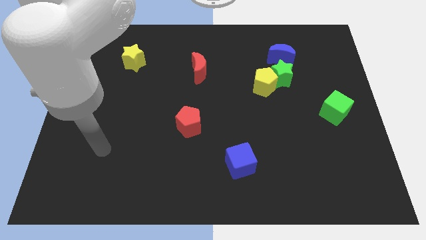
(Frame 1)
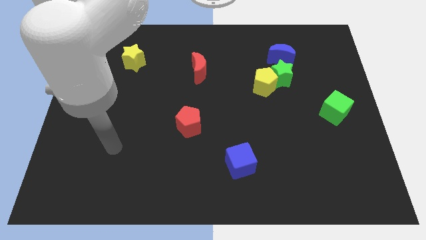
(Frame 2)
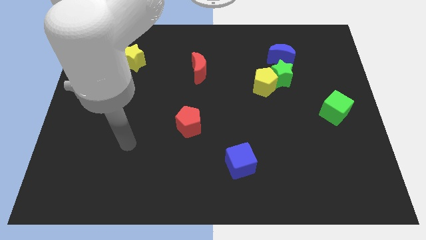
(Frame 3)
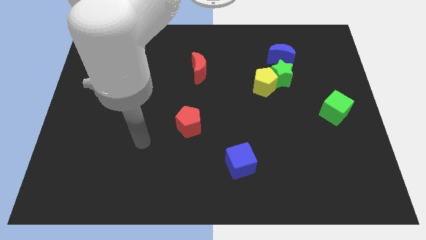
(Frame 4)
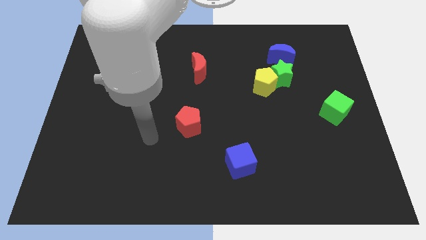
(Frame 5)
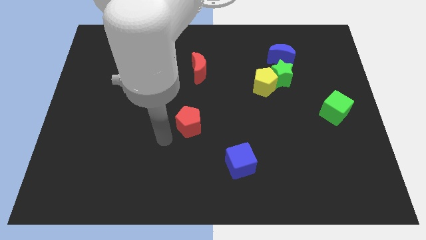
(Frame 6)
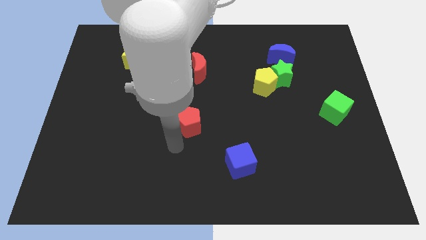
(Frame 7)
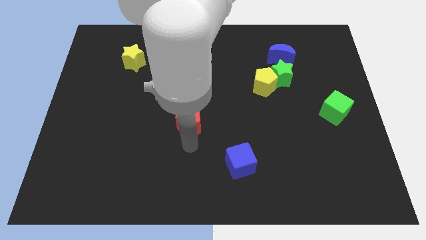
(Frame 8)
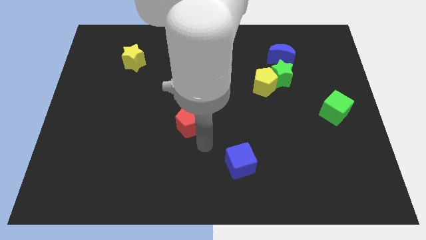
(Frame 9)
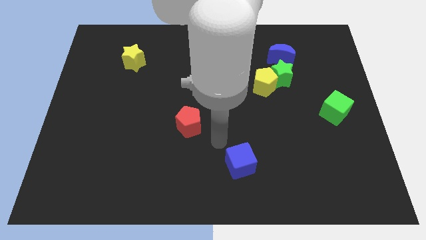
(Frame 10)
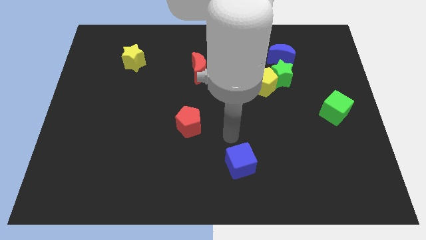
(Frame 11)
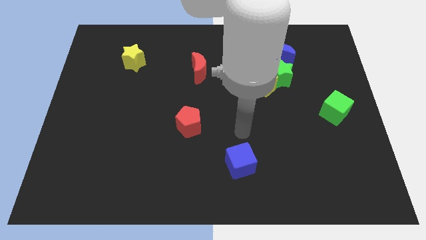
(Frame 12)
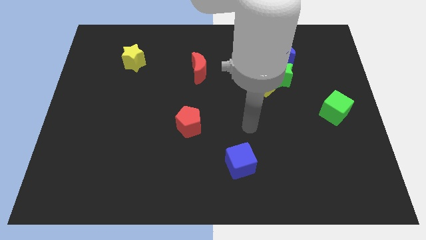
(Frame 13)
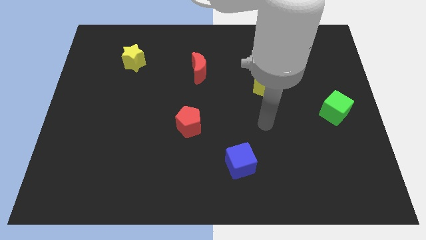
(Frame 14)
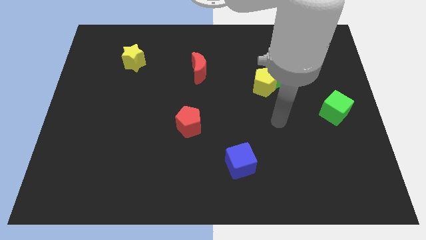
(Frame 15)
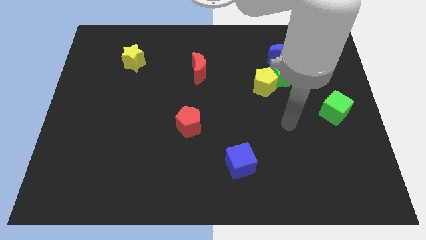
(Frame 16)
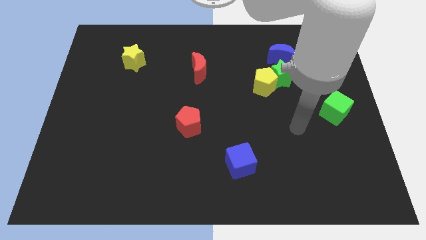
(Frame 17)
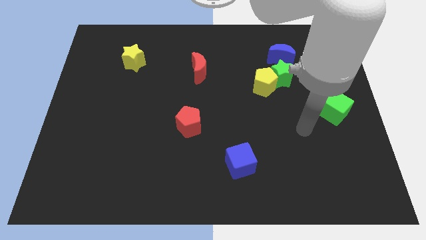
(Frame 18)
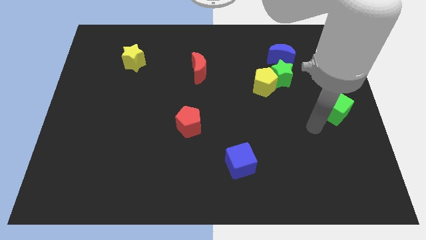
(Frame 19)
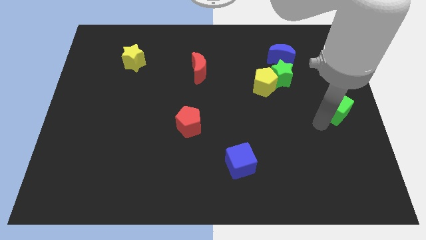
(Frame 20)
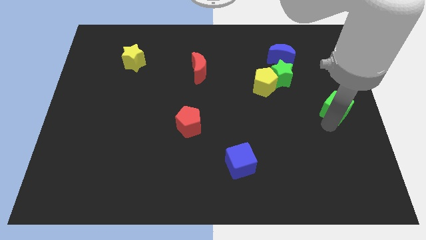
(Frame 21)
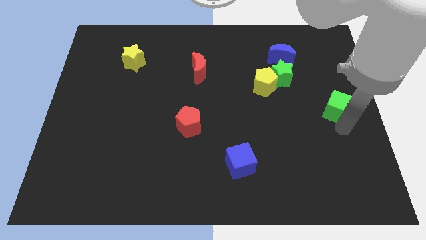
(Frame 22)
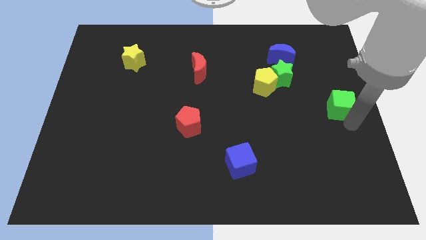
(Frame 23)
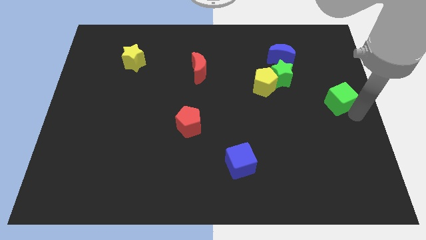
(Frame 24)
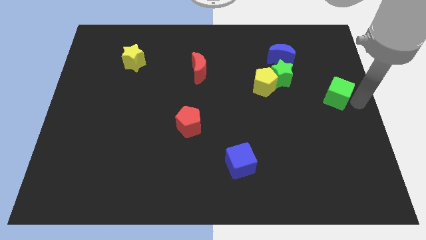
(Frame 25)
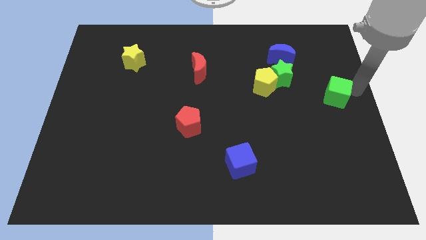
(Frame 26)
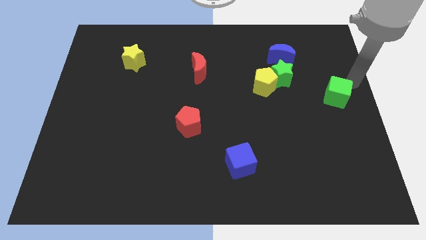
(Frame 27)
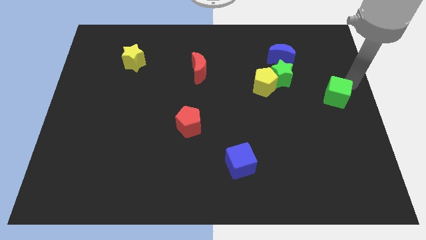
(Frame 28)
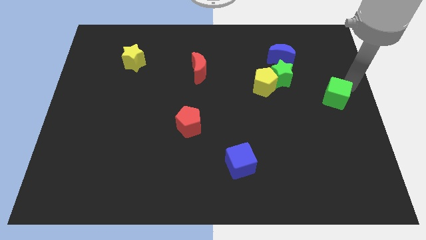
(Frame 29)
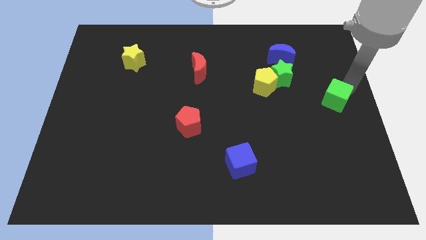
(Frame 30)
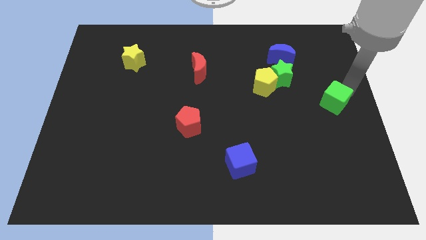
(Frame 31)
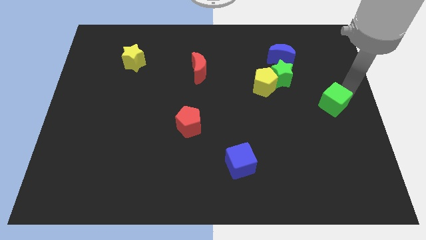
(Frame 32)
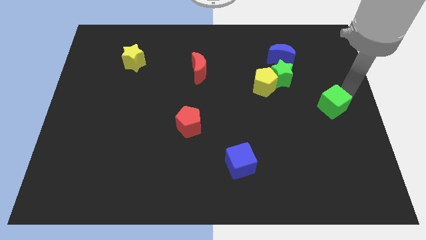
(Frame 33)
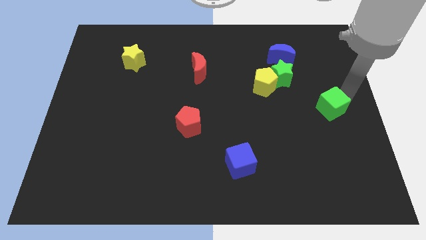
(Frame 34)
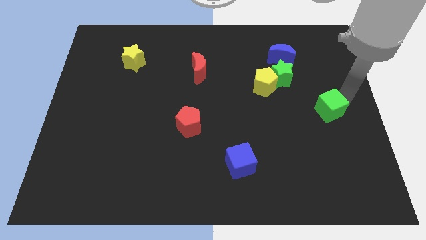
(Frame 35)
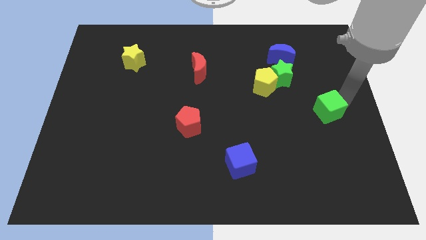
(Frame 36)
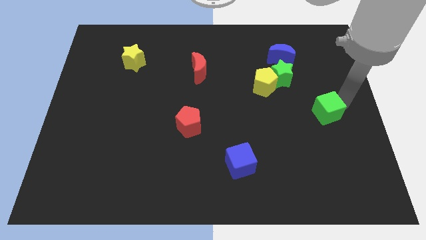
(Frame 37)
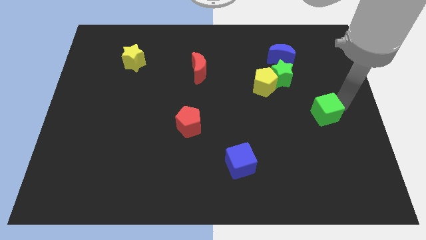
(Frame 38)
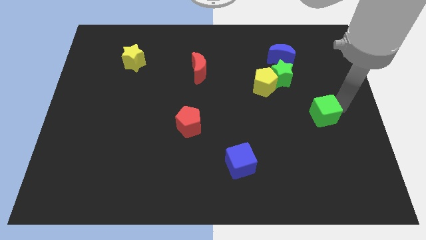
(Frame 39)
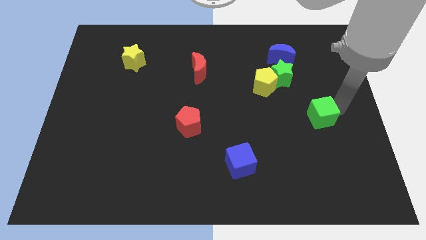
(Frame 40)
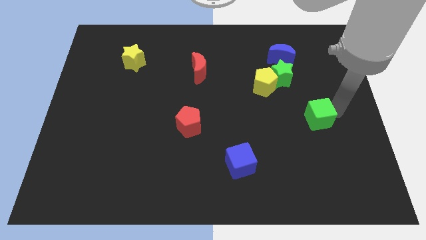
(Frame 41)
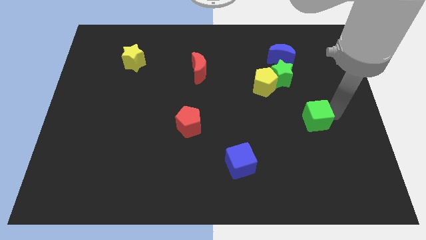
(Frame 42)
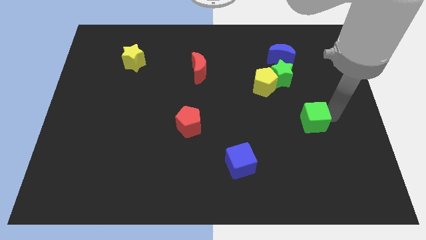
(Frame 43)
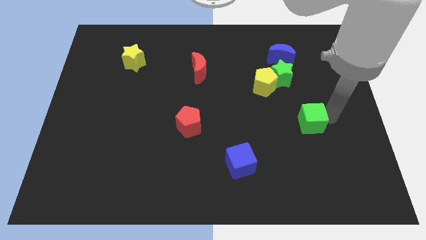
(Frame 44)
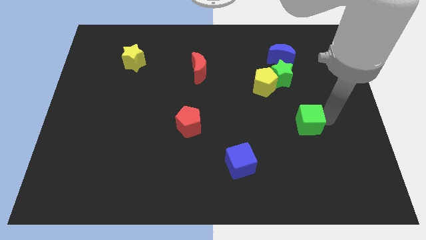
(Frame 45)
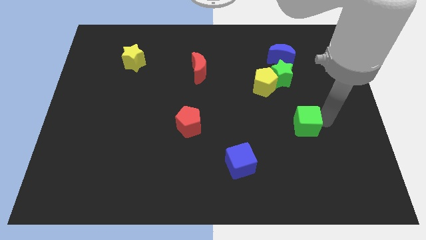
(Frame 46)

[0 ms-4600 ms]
push the green cube a bit left

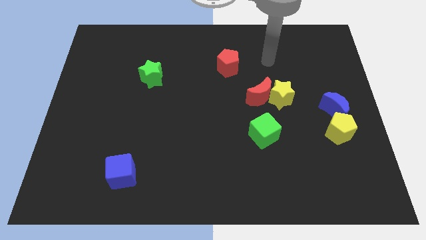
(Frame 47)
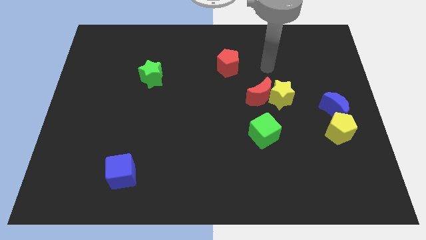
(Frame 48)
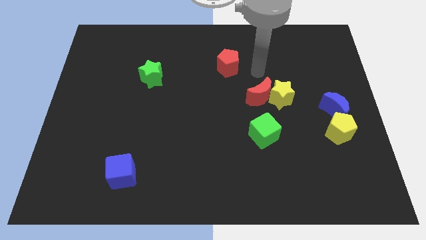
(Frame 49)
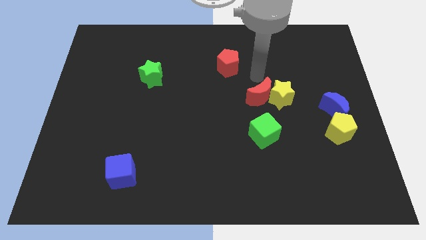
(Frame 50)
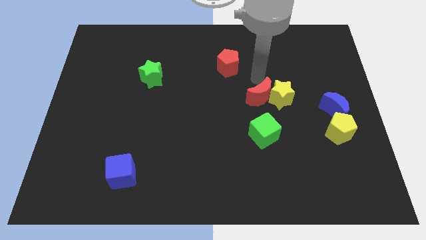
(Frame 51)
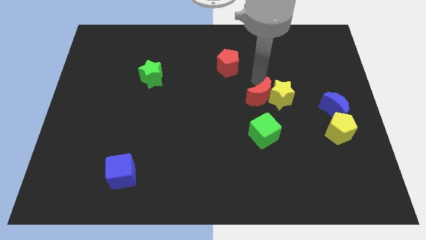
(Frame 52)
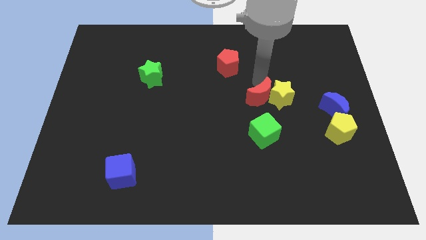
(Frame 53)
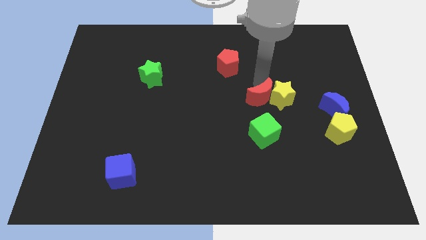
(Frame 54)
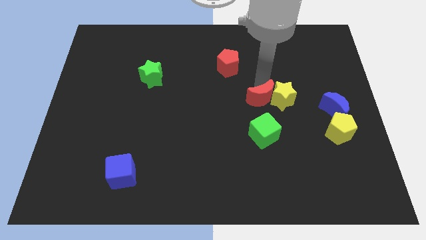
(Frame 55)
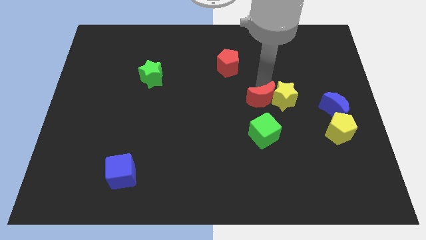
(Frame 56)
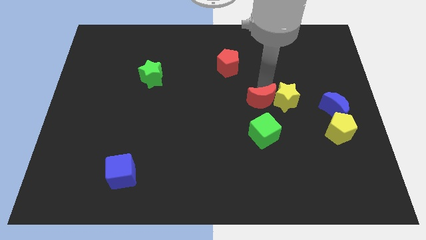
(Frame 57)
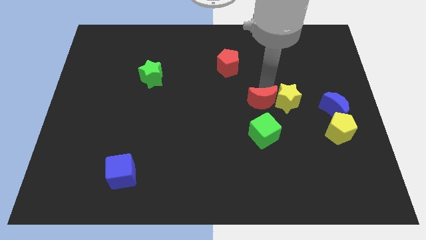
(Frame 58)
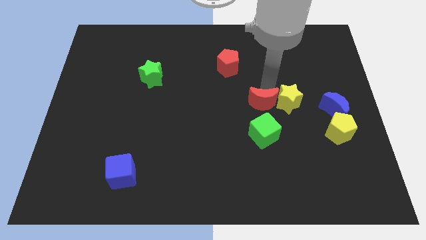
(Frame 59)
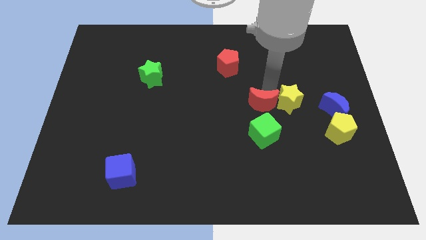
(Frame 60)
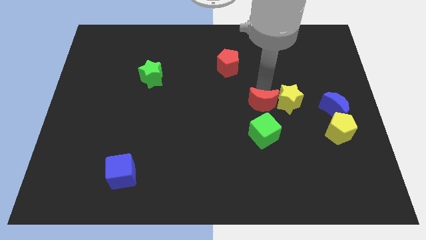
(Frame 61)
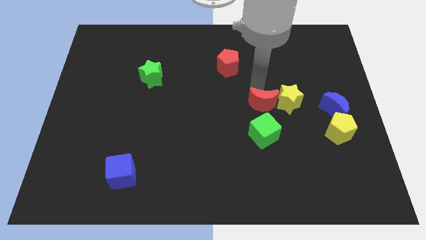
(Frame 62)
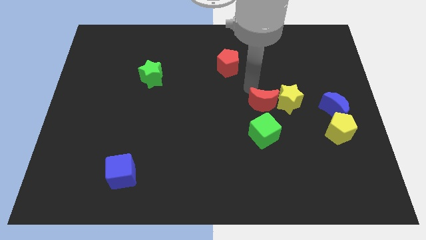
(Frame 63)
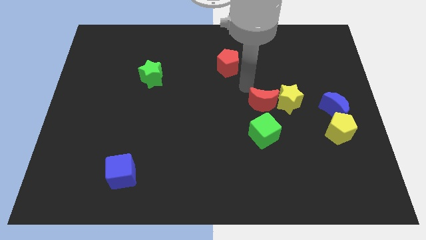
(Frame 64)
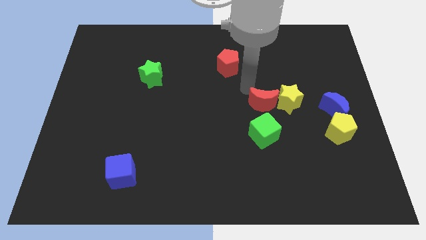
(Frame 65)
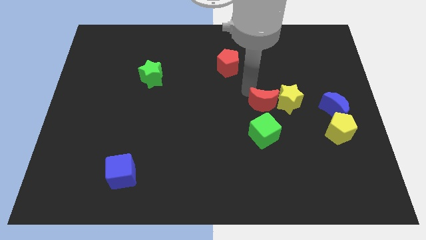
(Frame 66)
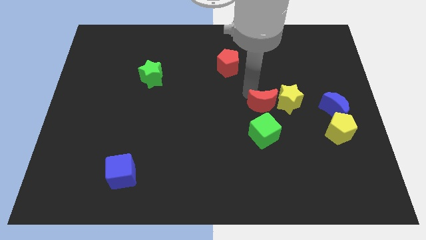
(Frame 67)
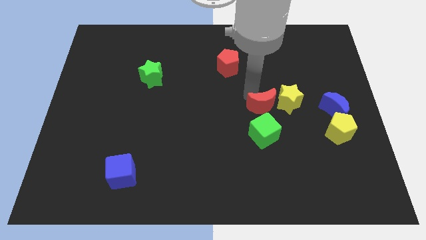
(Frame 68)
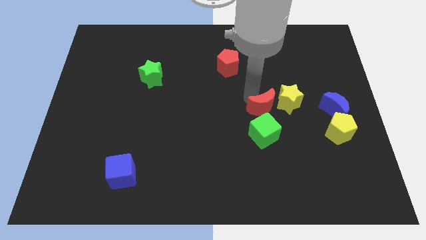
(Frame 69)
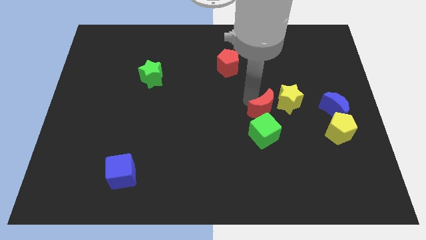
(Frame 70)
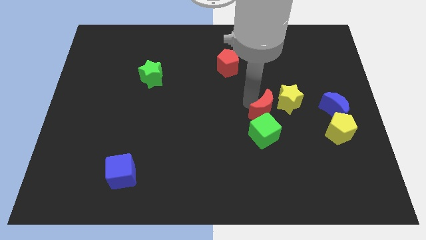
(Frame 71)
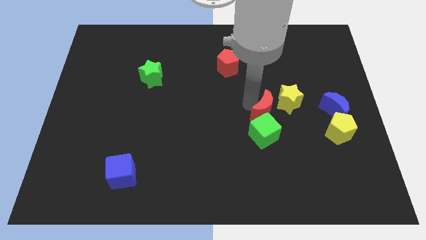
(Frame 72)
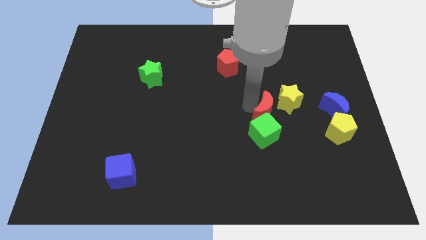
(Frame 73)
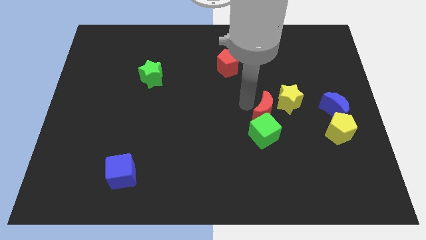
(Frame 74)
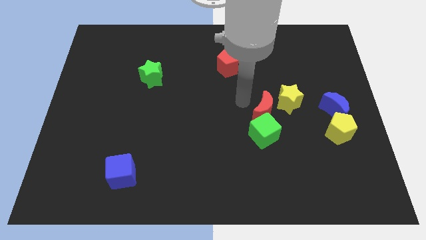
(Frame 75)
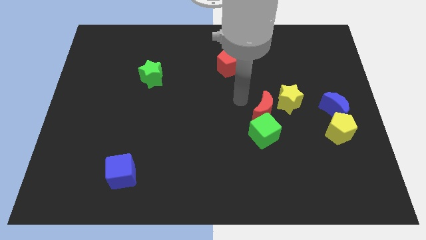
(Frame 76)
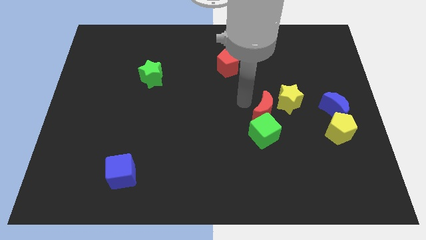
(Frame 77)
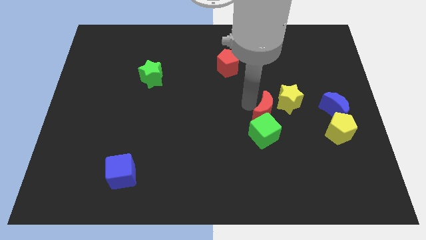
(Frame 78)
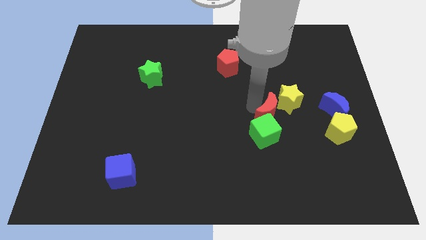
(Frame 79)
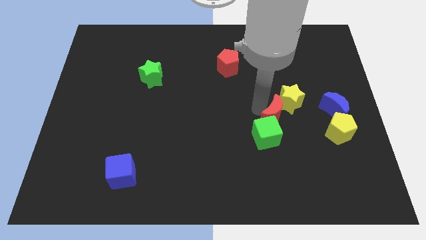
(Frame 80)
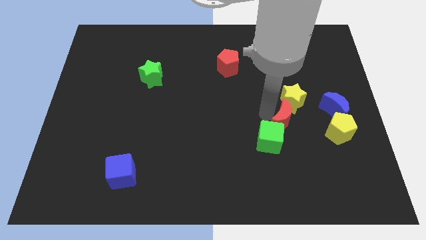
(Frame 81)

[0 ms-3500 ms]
move the red moon somewhat downwards and right diagonally
